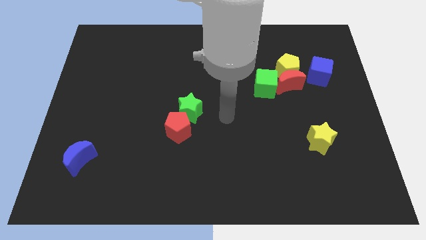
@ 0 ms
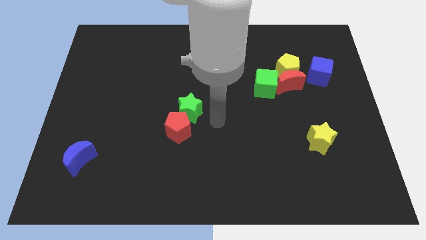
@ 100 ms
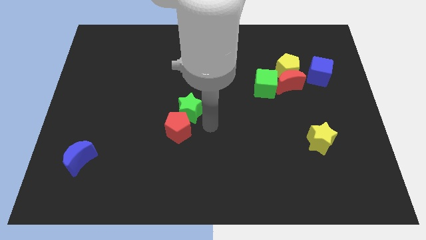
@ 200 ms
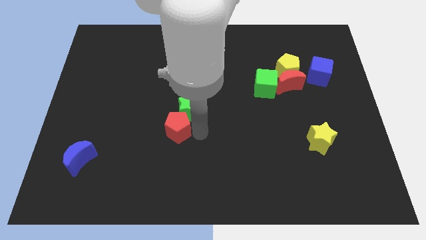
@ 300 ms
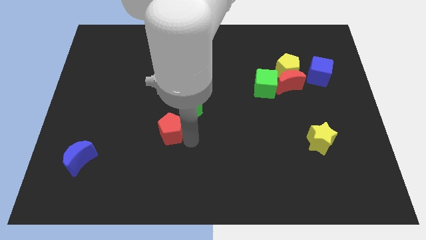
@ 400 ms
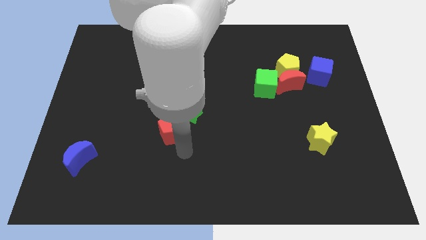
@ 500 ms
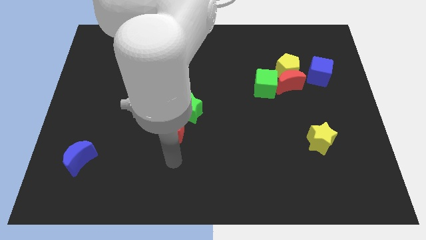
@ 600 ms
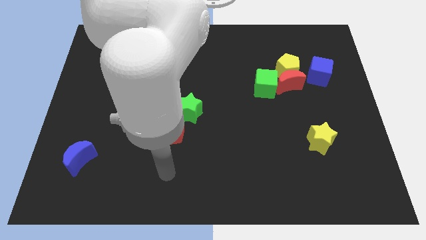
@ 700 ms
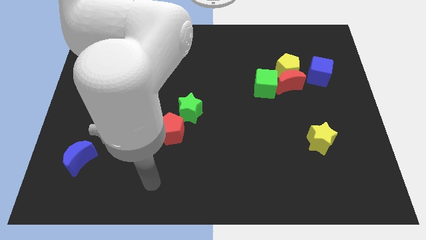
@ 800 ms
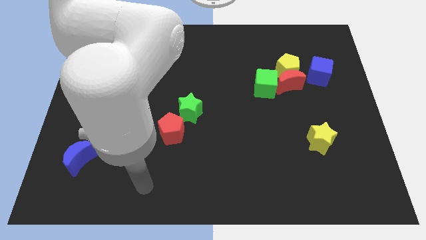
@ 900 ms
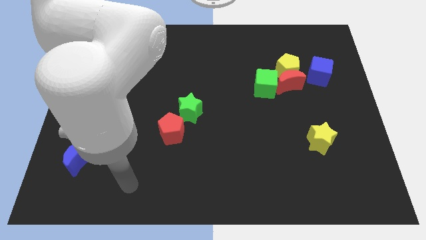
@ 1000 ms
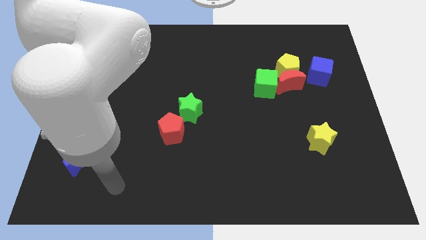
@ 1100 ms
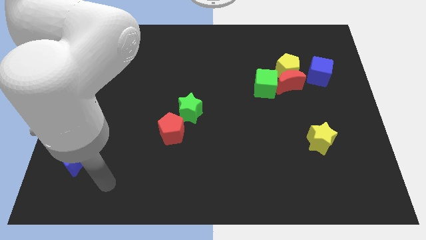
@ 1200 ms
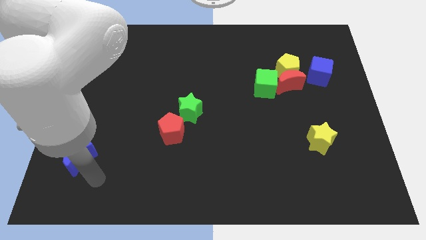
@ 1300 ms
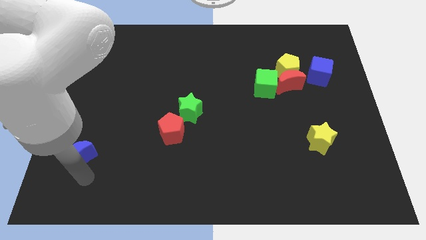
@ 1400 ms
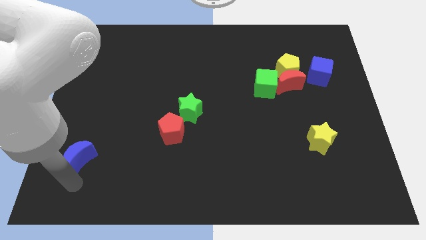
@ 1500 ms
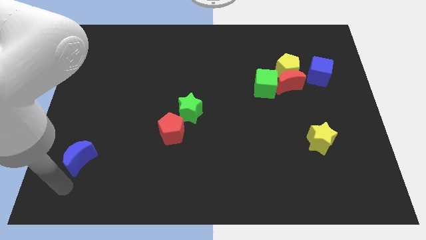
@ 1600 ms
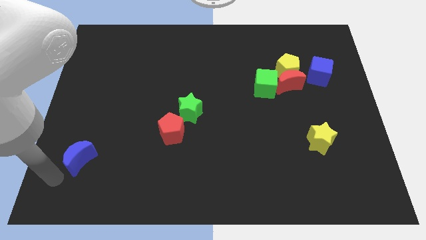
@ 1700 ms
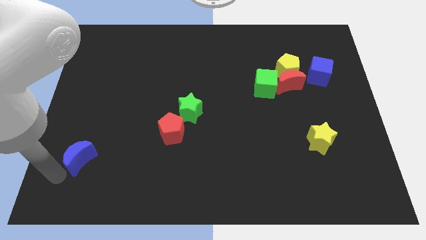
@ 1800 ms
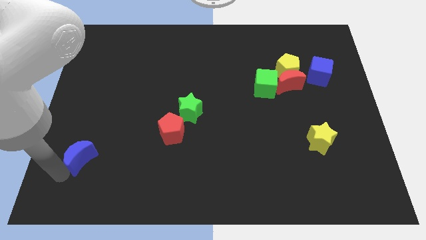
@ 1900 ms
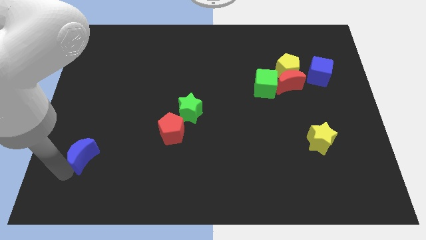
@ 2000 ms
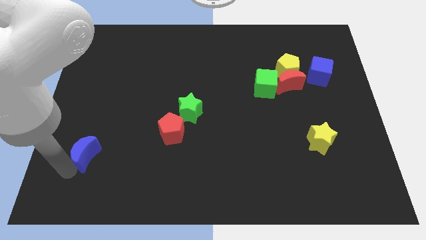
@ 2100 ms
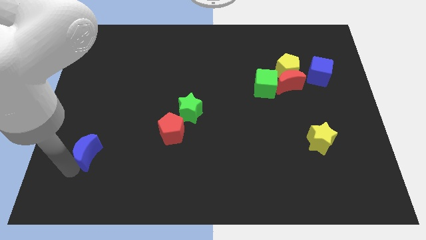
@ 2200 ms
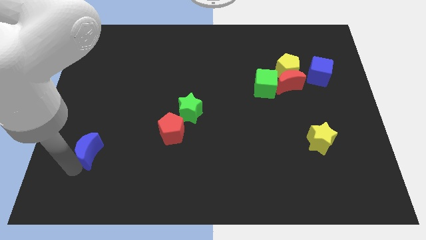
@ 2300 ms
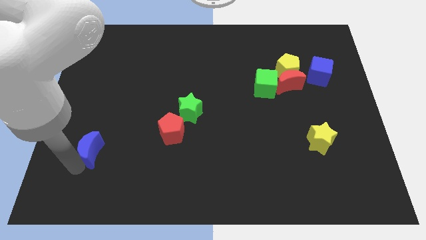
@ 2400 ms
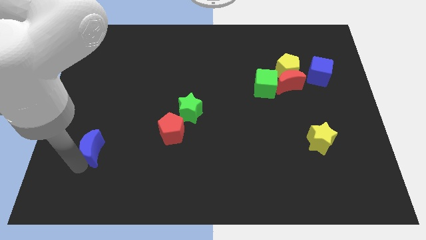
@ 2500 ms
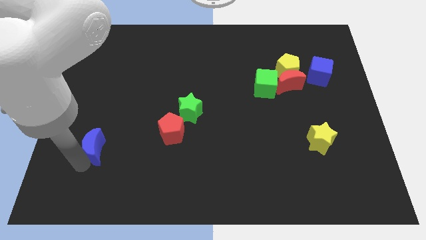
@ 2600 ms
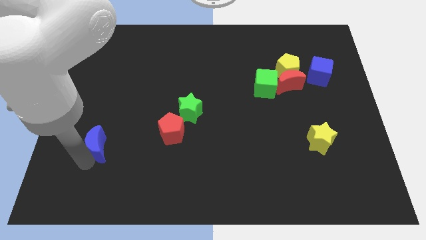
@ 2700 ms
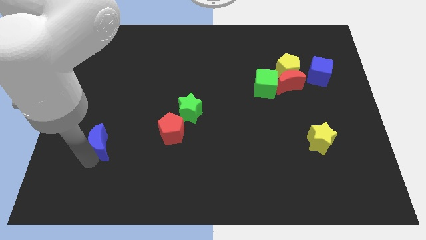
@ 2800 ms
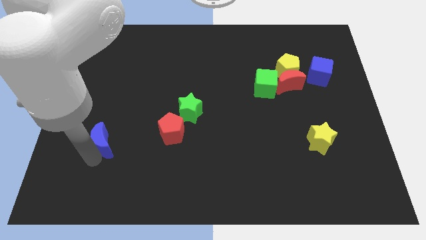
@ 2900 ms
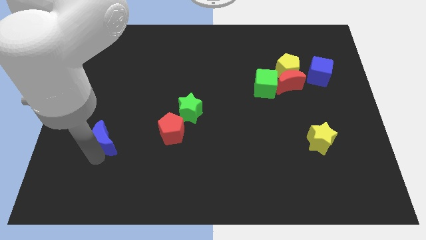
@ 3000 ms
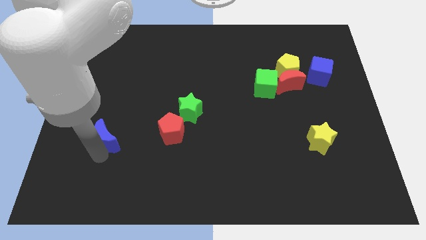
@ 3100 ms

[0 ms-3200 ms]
slide the blue moon a little up and to the right diagonally

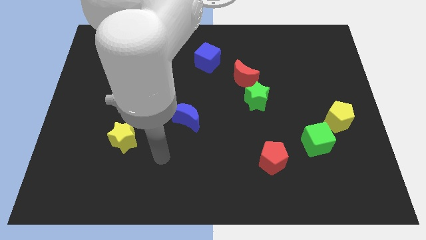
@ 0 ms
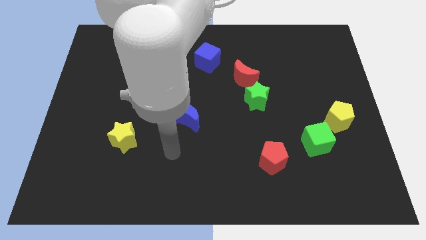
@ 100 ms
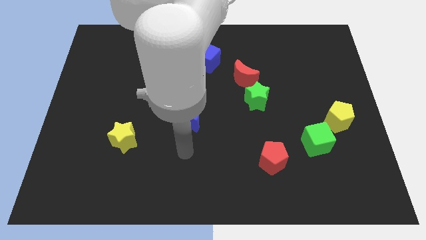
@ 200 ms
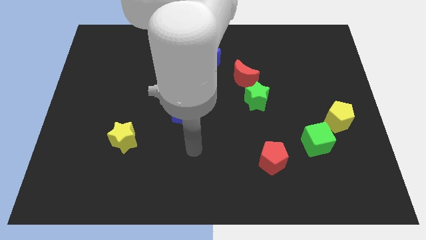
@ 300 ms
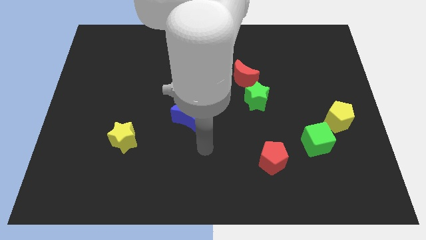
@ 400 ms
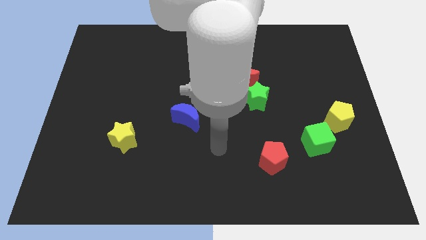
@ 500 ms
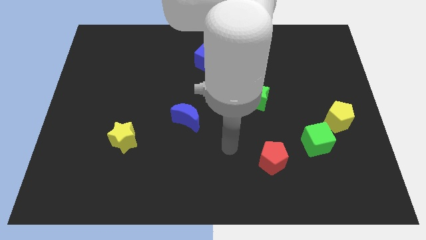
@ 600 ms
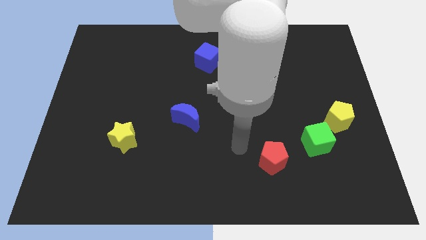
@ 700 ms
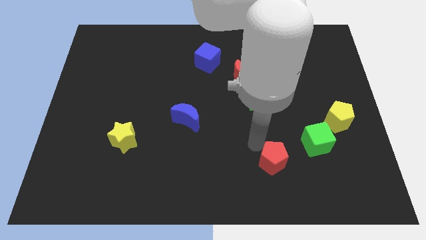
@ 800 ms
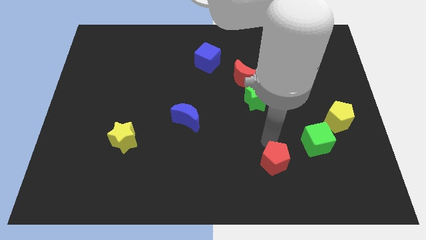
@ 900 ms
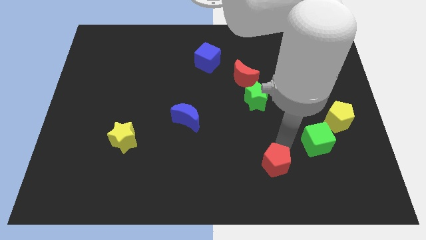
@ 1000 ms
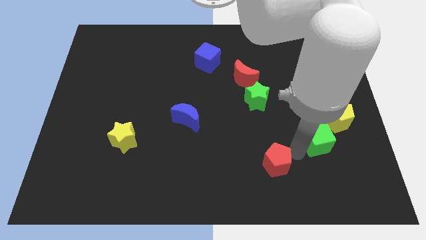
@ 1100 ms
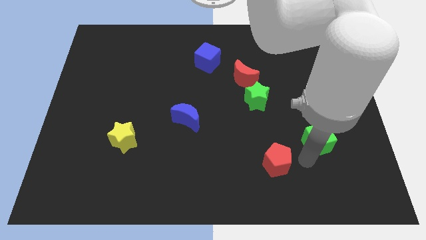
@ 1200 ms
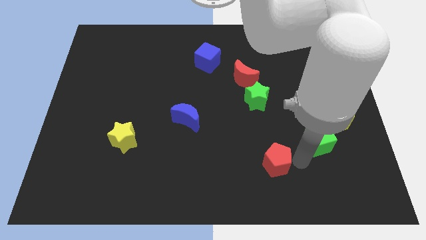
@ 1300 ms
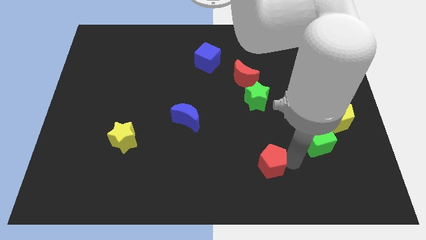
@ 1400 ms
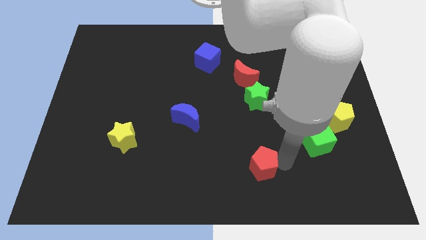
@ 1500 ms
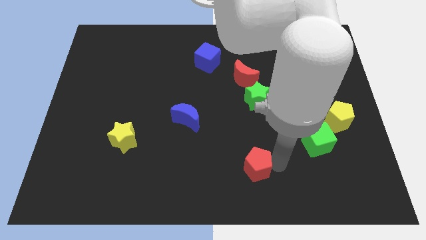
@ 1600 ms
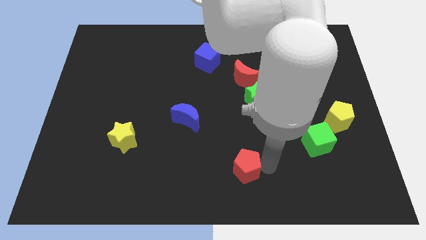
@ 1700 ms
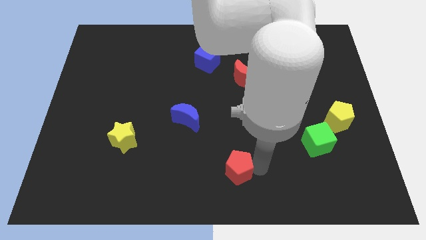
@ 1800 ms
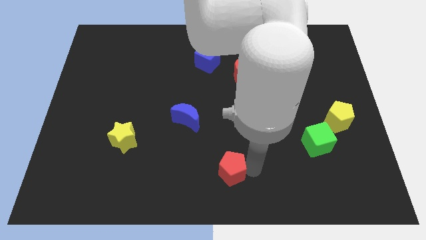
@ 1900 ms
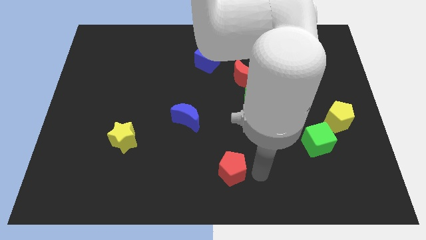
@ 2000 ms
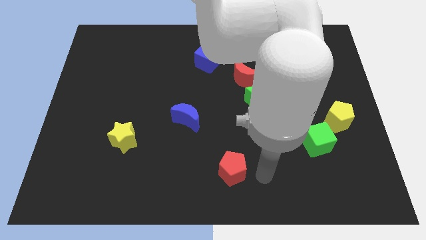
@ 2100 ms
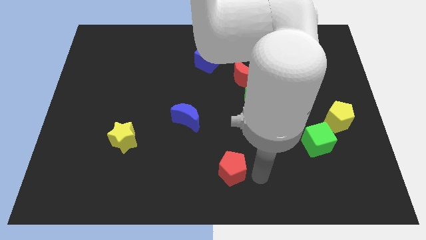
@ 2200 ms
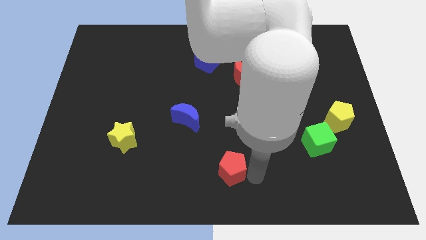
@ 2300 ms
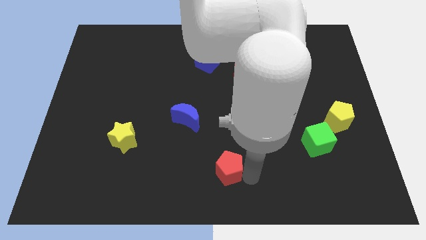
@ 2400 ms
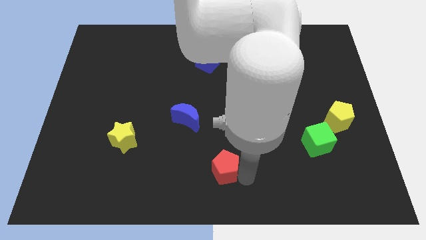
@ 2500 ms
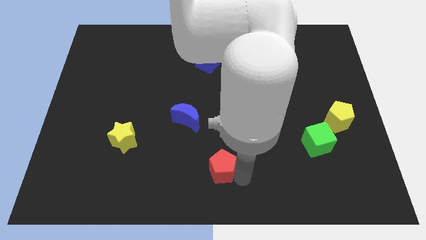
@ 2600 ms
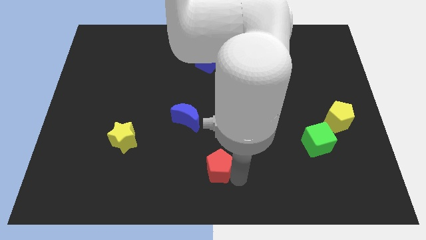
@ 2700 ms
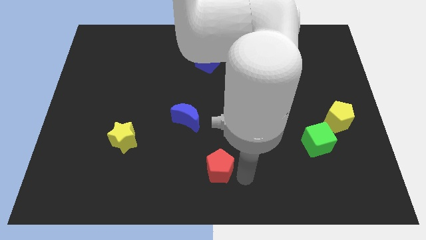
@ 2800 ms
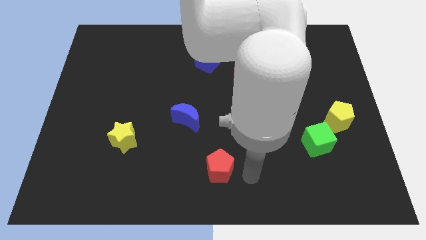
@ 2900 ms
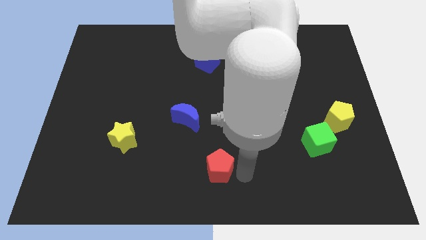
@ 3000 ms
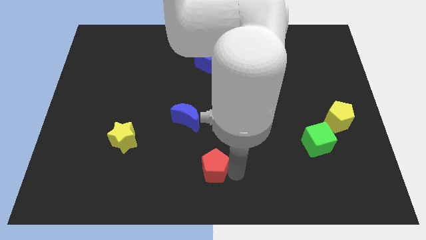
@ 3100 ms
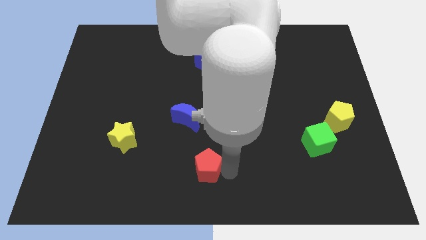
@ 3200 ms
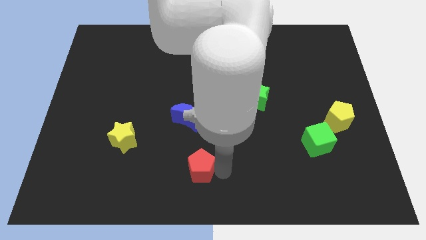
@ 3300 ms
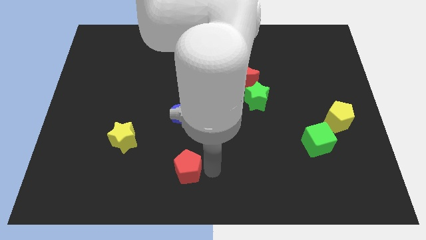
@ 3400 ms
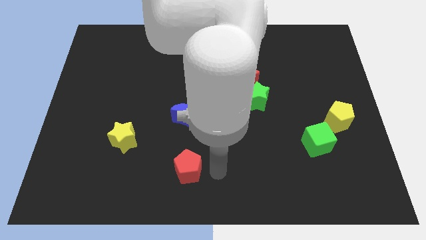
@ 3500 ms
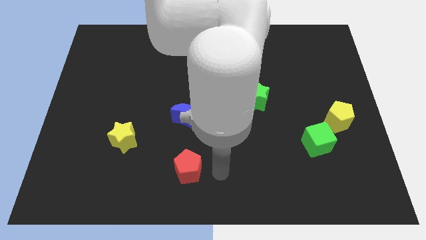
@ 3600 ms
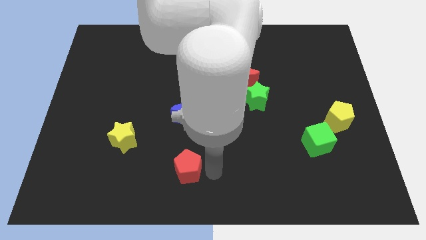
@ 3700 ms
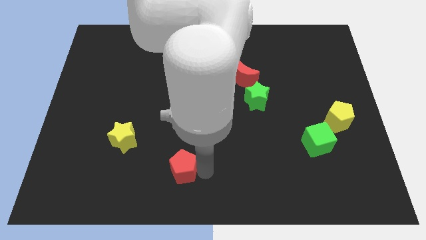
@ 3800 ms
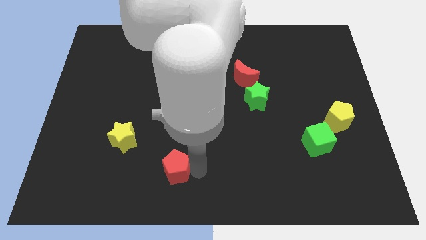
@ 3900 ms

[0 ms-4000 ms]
move the red pentagon left

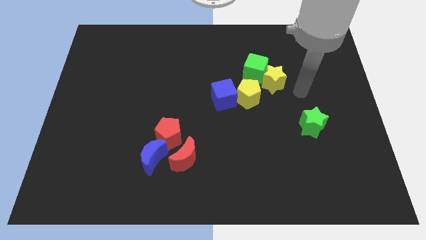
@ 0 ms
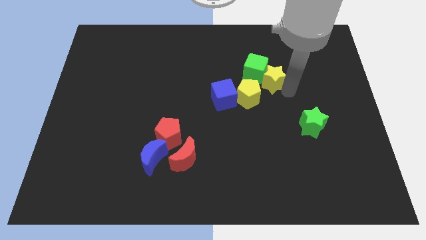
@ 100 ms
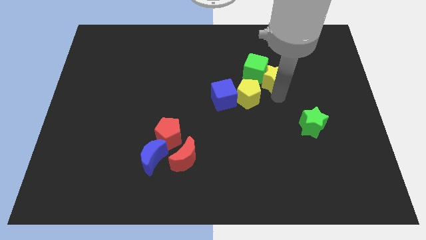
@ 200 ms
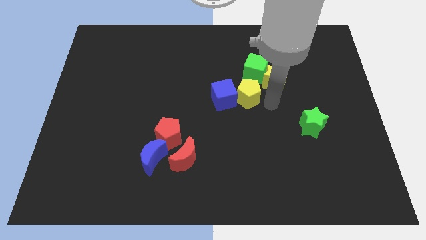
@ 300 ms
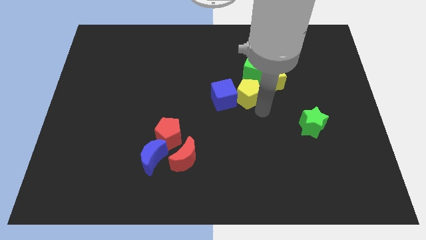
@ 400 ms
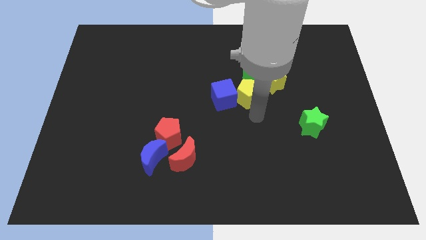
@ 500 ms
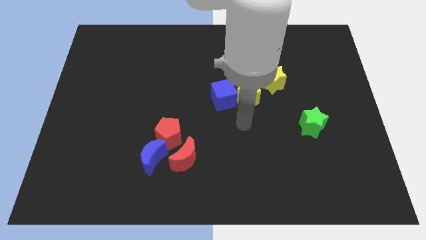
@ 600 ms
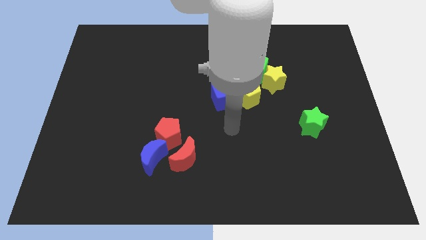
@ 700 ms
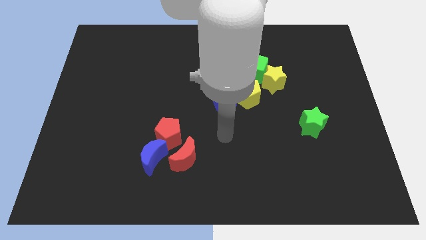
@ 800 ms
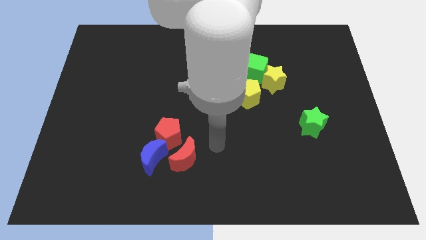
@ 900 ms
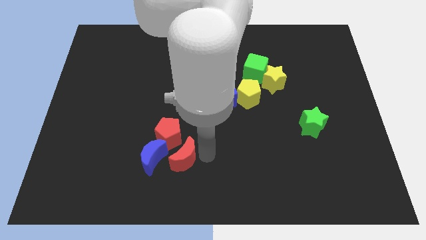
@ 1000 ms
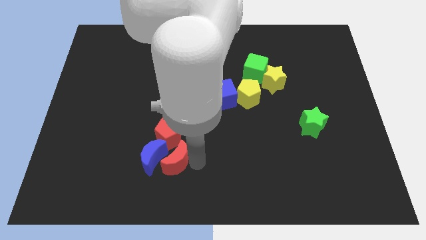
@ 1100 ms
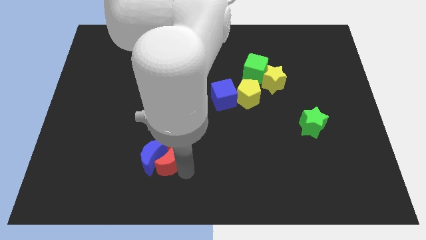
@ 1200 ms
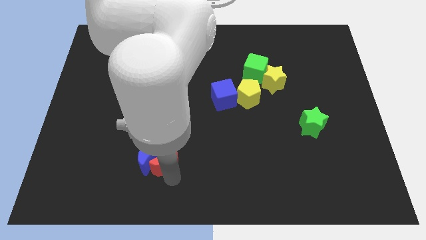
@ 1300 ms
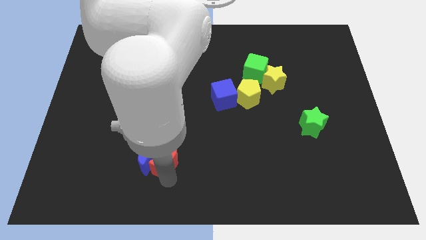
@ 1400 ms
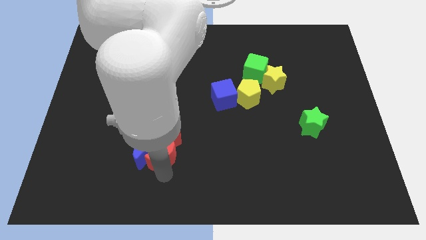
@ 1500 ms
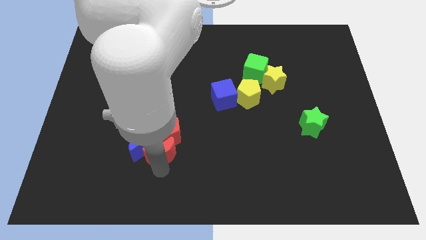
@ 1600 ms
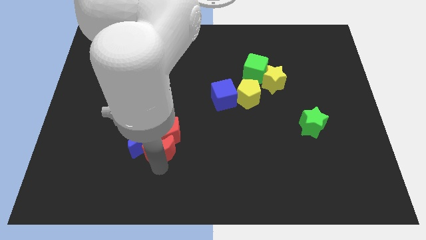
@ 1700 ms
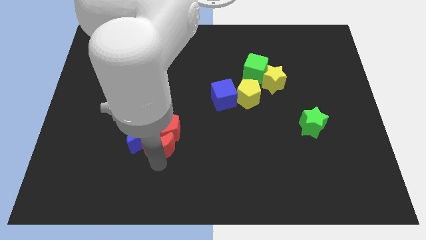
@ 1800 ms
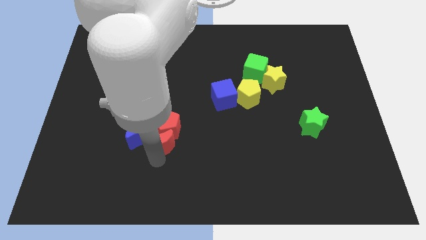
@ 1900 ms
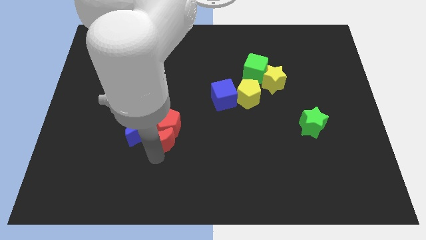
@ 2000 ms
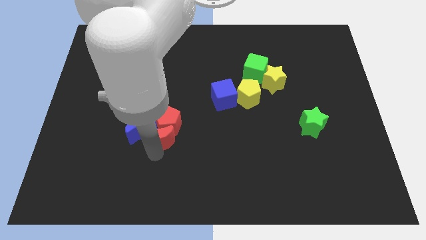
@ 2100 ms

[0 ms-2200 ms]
move the blue moon upwards and then left a little
